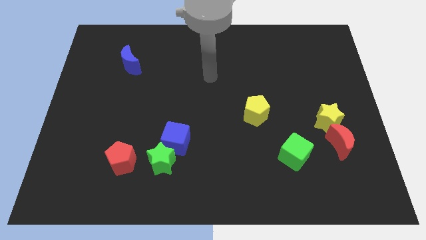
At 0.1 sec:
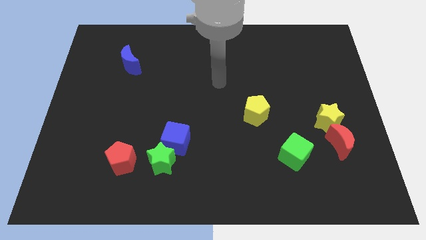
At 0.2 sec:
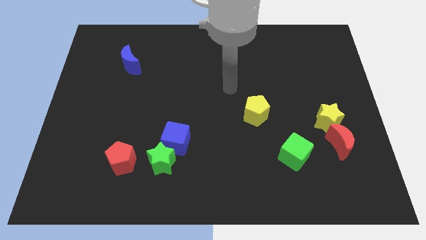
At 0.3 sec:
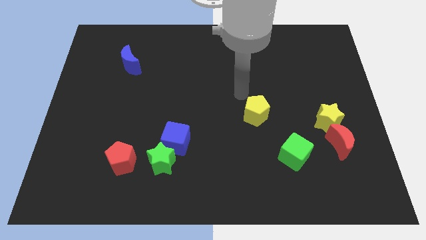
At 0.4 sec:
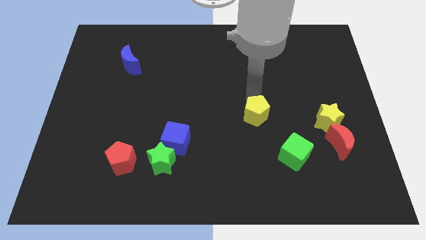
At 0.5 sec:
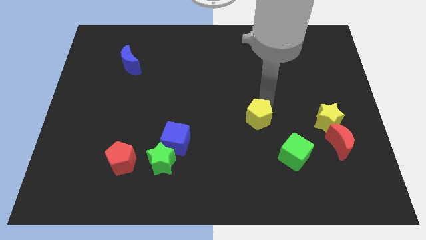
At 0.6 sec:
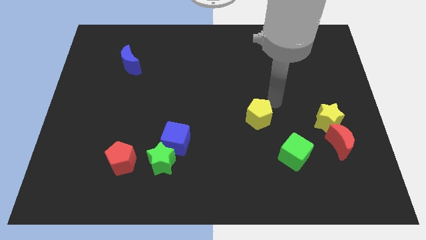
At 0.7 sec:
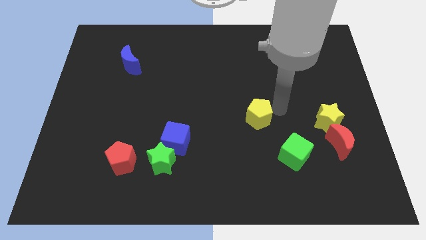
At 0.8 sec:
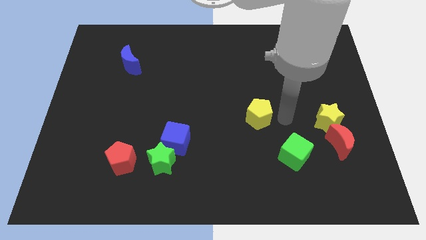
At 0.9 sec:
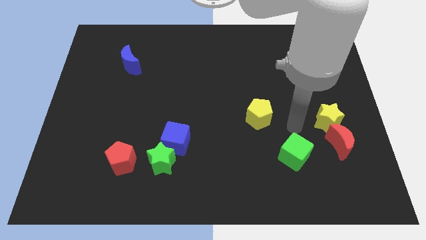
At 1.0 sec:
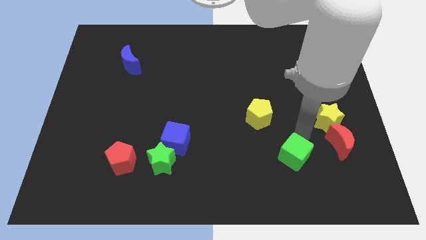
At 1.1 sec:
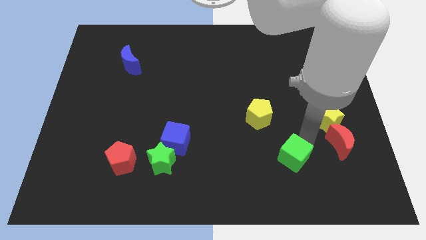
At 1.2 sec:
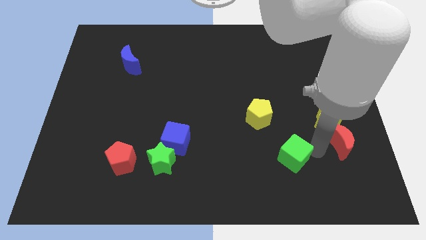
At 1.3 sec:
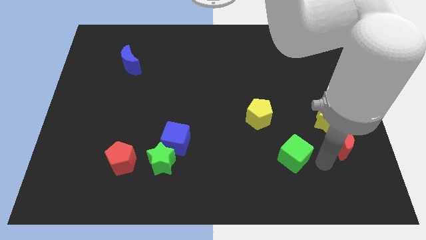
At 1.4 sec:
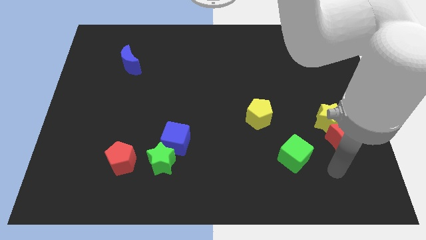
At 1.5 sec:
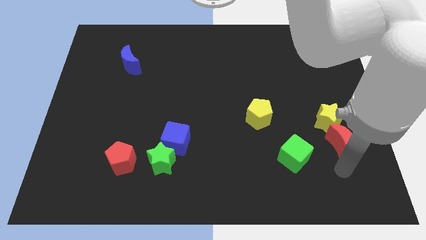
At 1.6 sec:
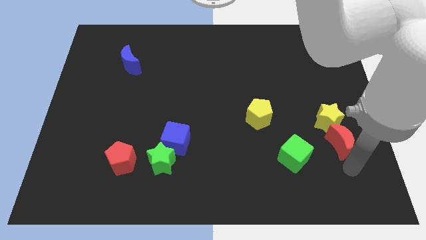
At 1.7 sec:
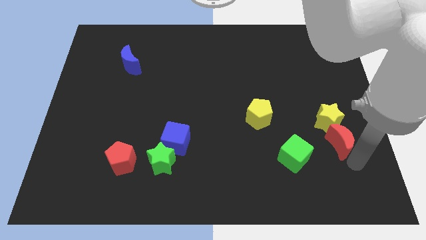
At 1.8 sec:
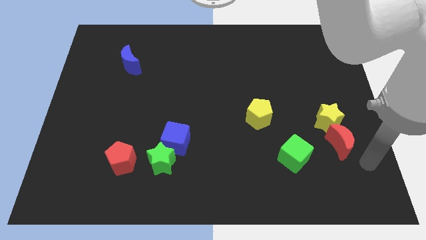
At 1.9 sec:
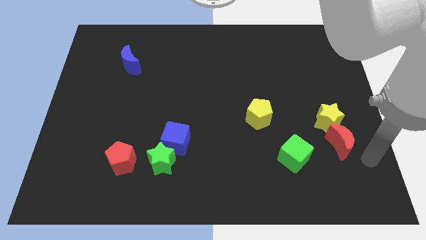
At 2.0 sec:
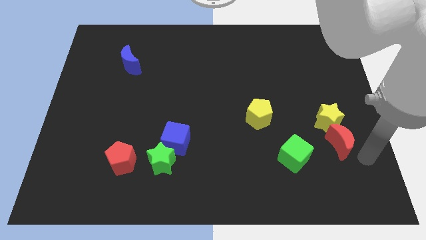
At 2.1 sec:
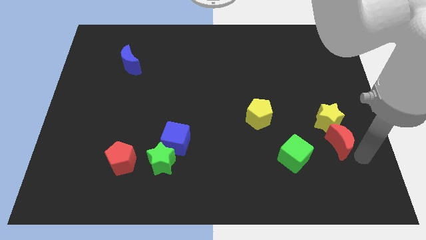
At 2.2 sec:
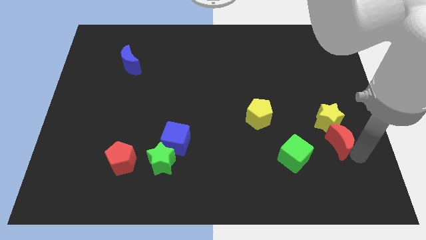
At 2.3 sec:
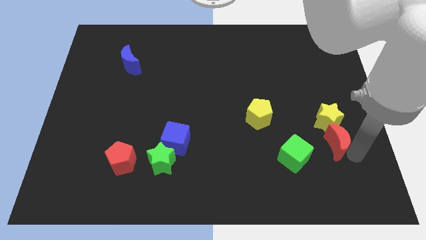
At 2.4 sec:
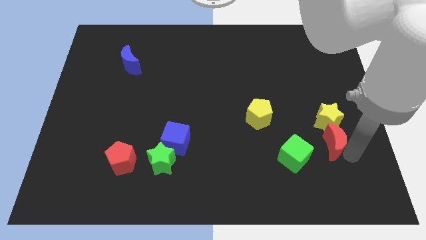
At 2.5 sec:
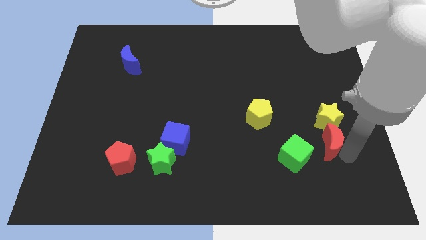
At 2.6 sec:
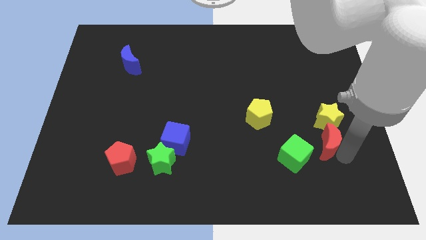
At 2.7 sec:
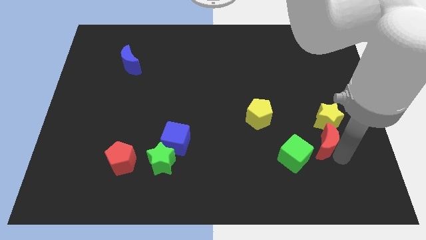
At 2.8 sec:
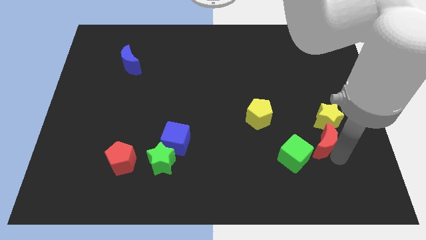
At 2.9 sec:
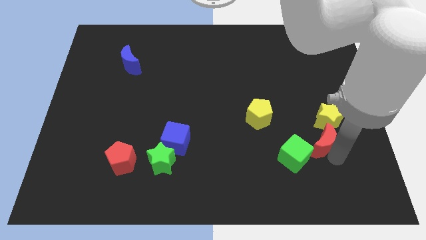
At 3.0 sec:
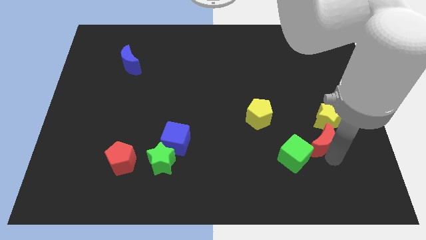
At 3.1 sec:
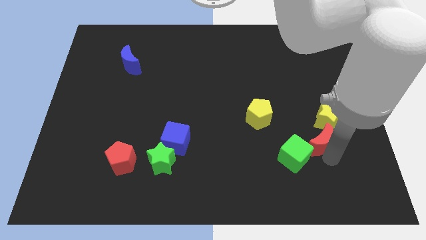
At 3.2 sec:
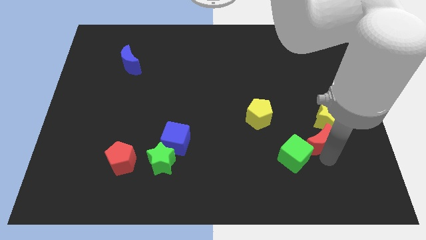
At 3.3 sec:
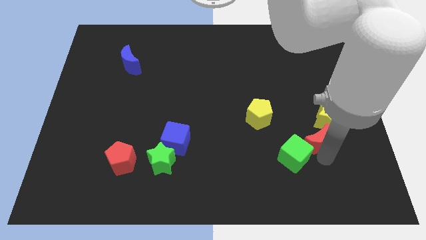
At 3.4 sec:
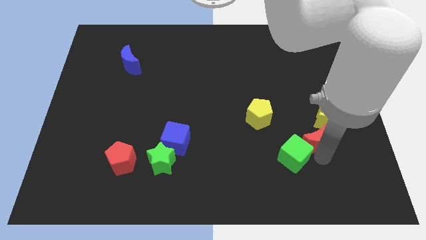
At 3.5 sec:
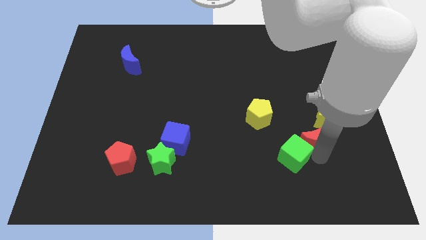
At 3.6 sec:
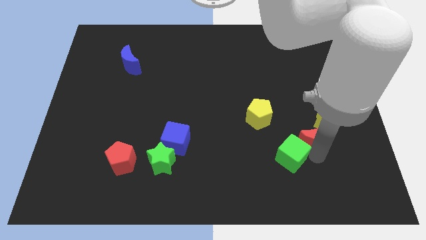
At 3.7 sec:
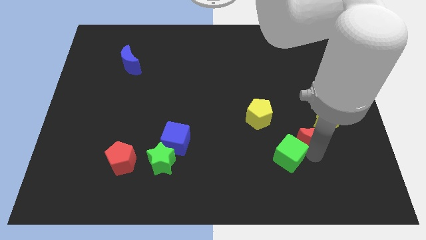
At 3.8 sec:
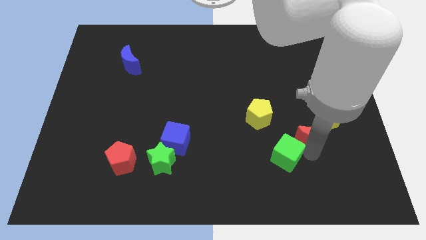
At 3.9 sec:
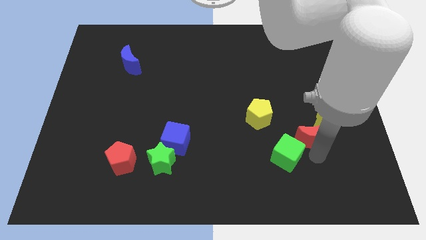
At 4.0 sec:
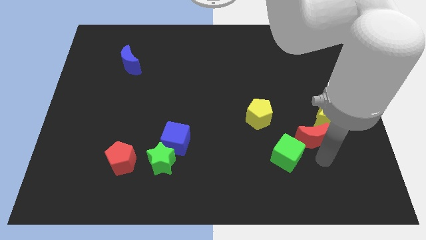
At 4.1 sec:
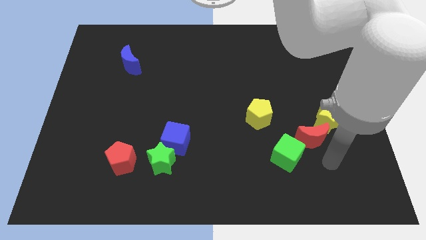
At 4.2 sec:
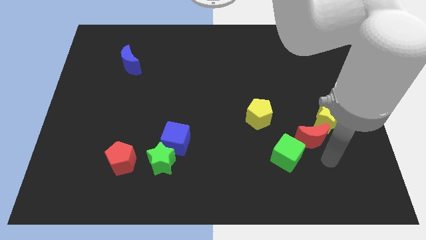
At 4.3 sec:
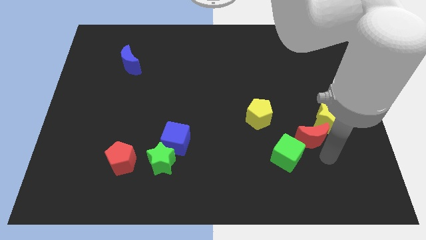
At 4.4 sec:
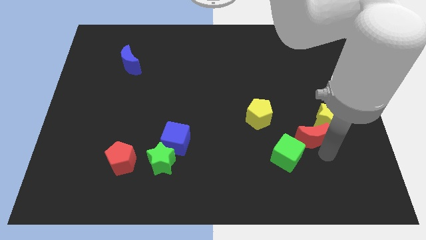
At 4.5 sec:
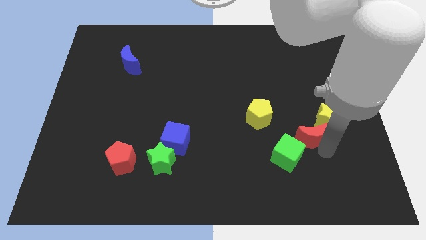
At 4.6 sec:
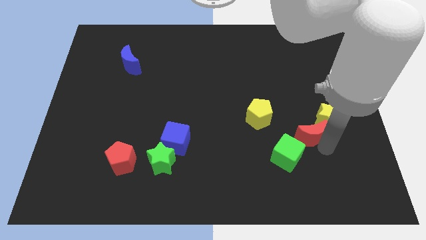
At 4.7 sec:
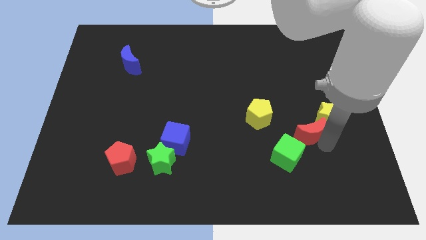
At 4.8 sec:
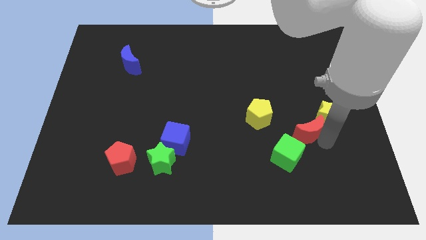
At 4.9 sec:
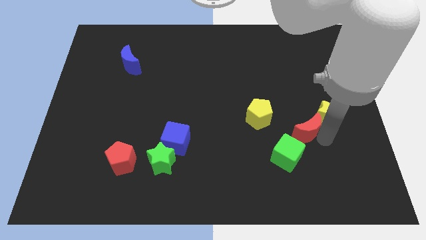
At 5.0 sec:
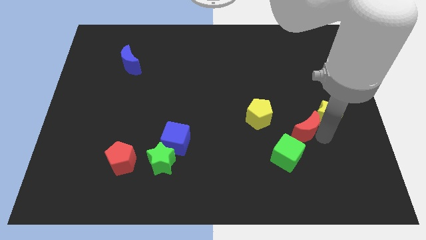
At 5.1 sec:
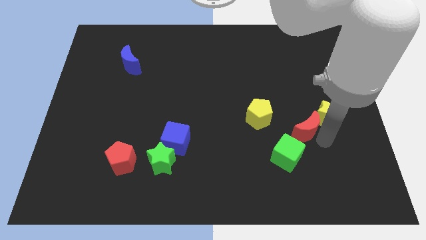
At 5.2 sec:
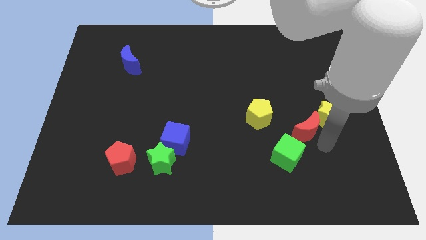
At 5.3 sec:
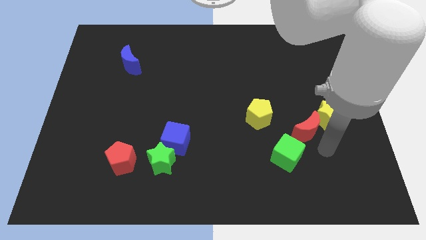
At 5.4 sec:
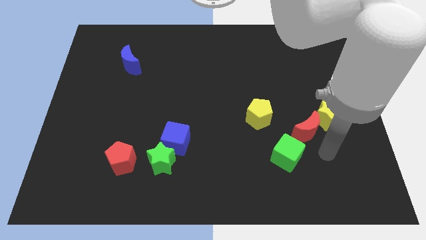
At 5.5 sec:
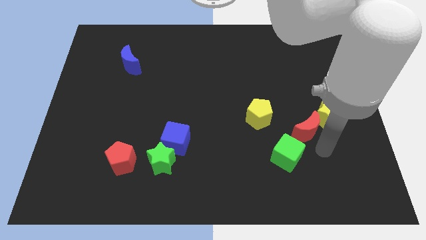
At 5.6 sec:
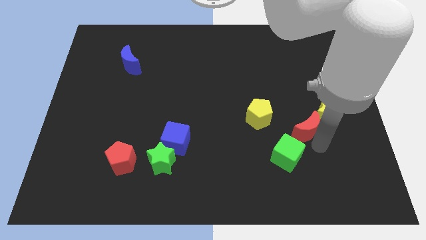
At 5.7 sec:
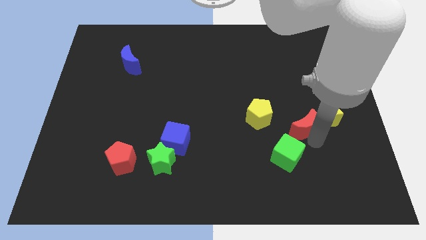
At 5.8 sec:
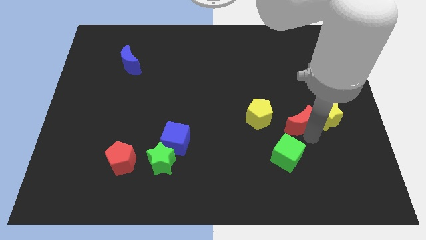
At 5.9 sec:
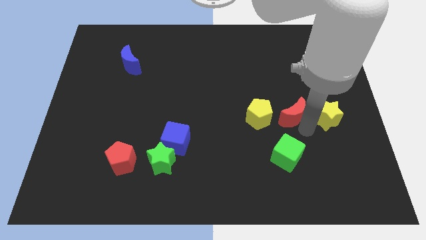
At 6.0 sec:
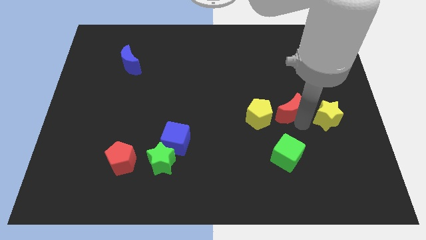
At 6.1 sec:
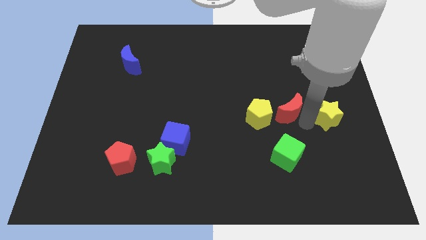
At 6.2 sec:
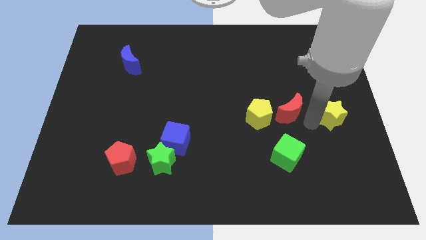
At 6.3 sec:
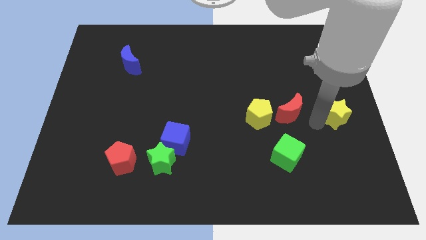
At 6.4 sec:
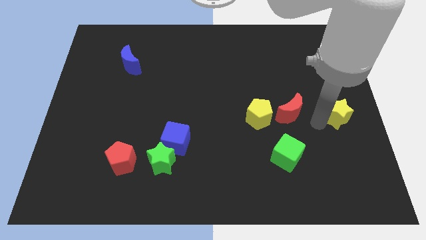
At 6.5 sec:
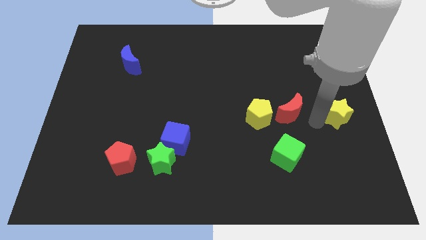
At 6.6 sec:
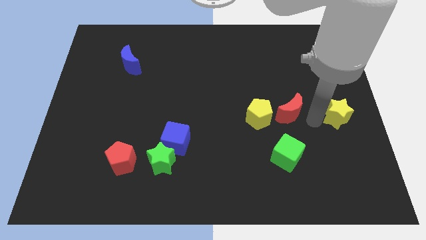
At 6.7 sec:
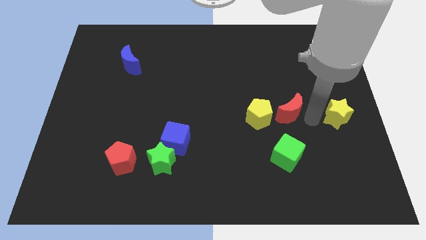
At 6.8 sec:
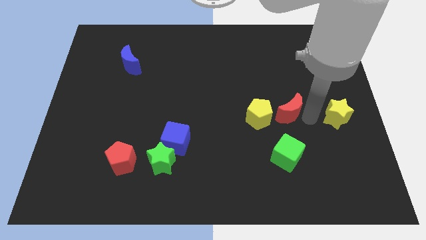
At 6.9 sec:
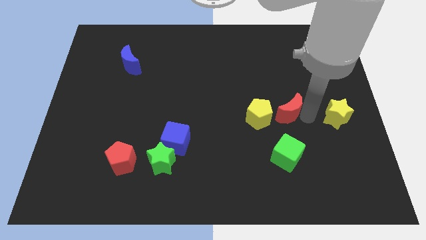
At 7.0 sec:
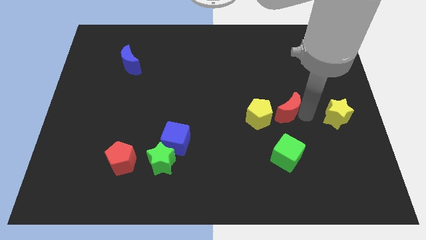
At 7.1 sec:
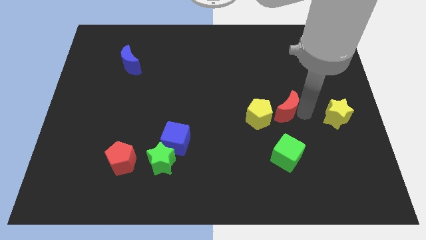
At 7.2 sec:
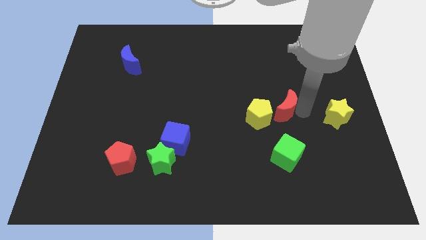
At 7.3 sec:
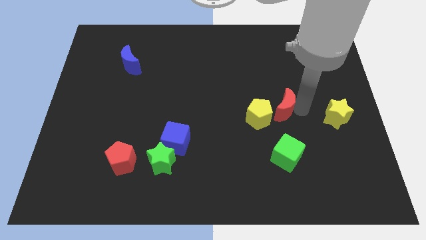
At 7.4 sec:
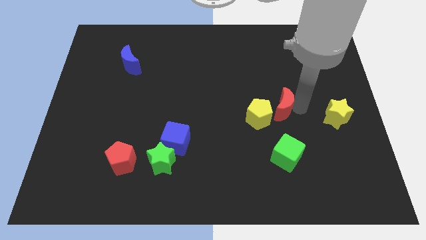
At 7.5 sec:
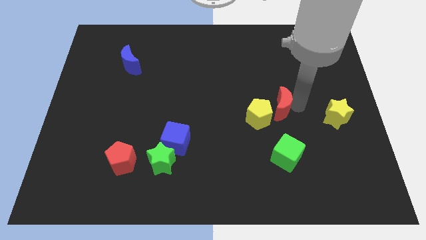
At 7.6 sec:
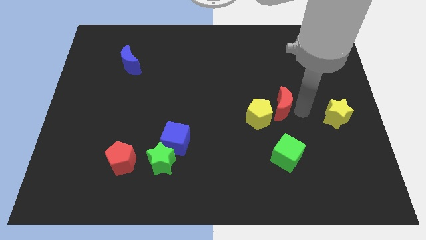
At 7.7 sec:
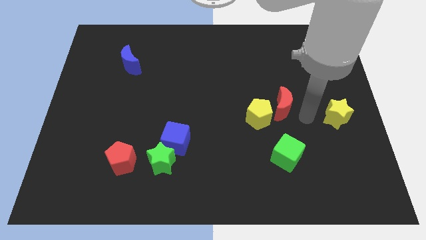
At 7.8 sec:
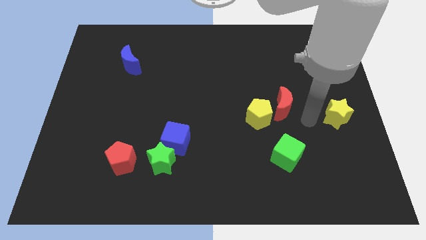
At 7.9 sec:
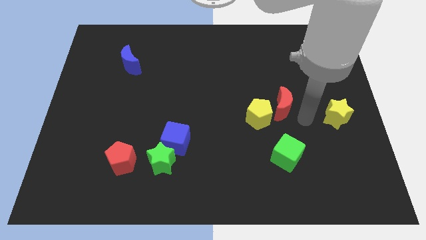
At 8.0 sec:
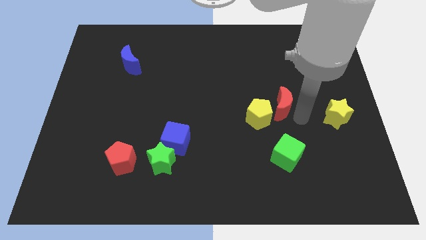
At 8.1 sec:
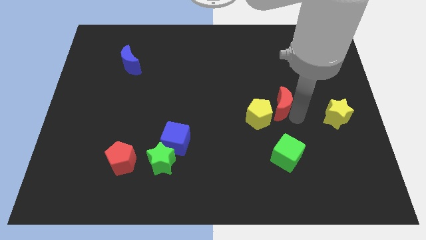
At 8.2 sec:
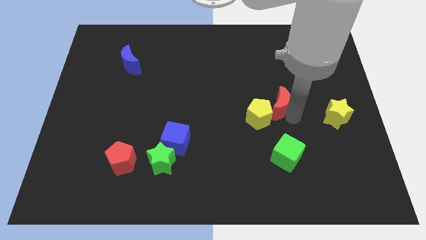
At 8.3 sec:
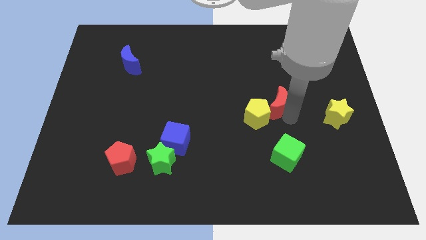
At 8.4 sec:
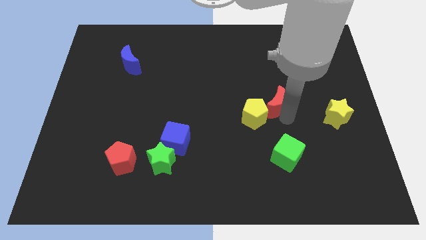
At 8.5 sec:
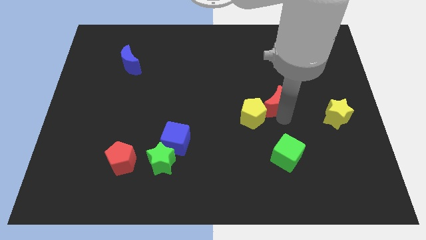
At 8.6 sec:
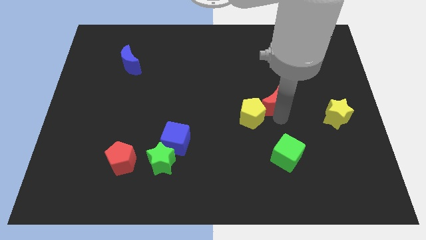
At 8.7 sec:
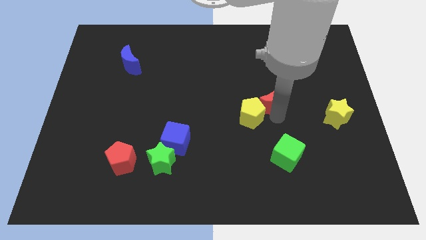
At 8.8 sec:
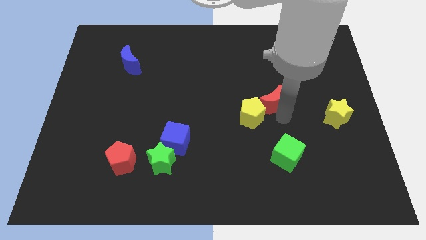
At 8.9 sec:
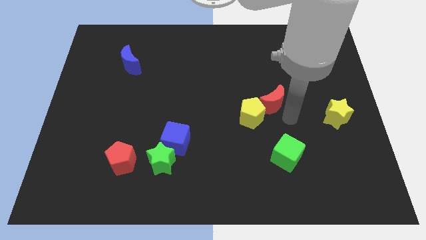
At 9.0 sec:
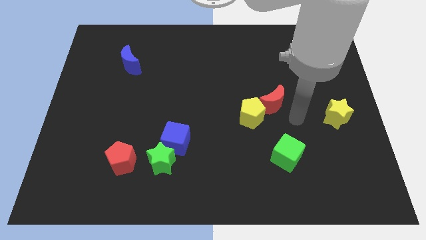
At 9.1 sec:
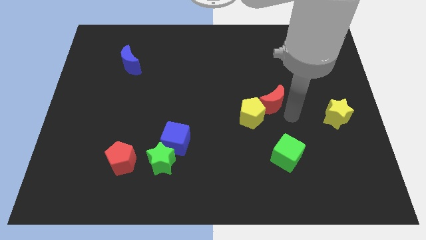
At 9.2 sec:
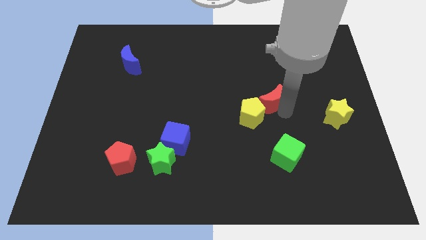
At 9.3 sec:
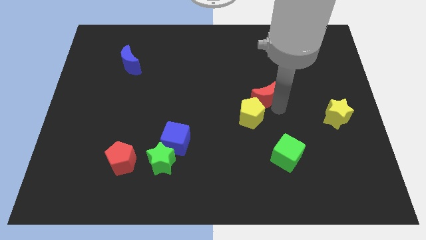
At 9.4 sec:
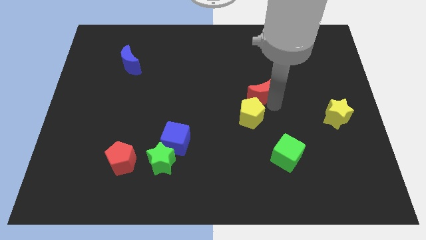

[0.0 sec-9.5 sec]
push the red moon up and left
